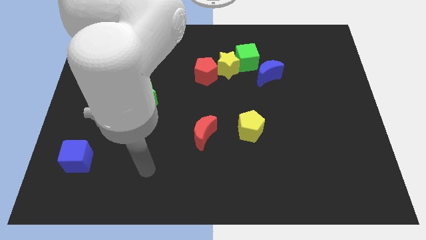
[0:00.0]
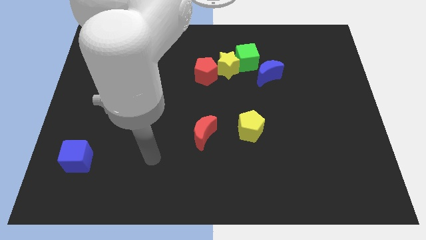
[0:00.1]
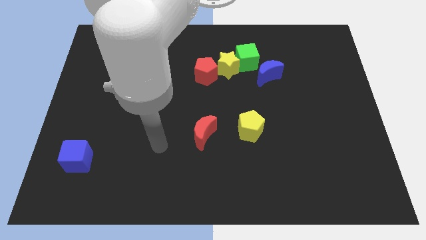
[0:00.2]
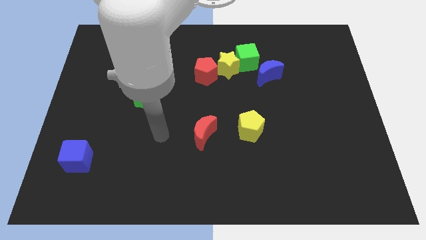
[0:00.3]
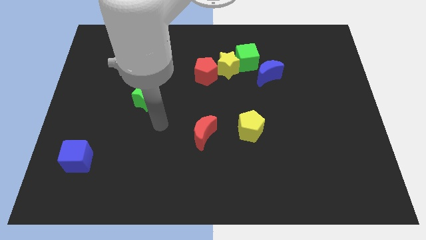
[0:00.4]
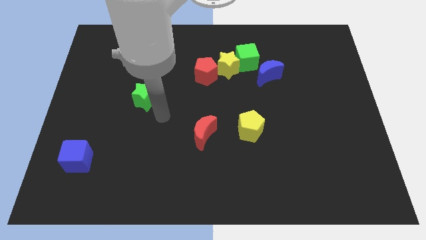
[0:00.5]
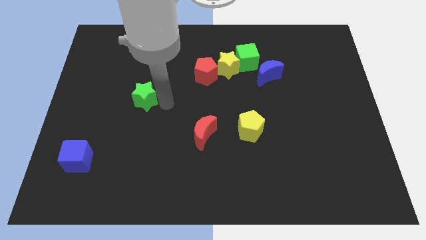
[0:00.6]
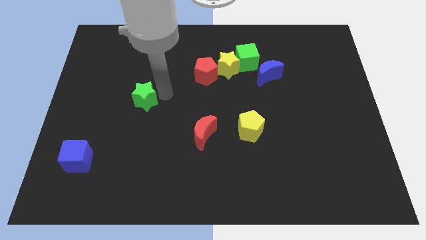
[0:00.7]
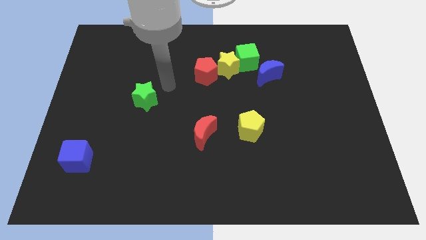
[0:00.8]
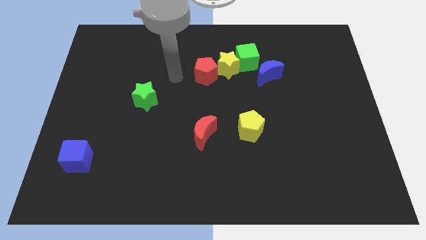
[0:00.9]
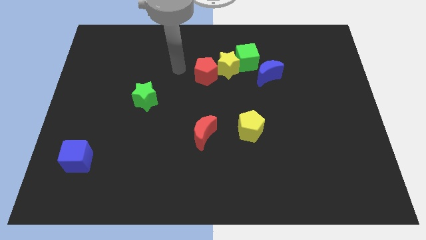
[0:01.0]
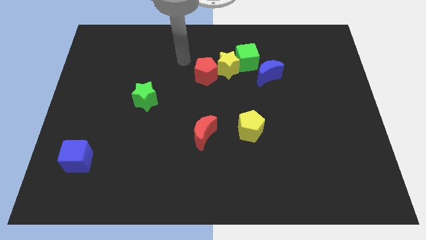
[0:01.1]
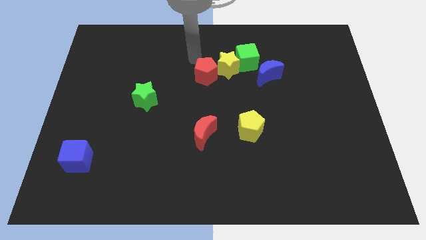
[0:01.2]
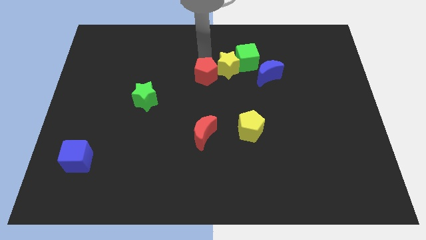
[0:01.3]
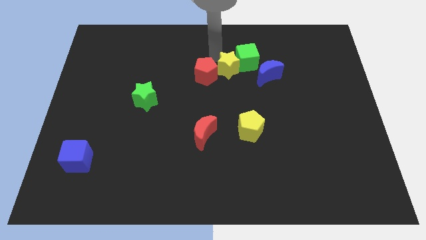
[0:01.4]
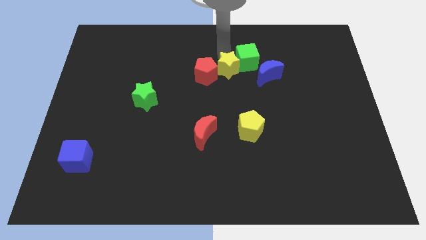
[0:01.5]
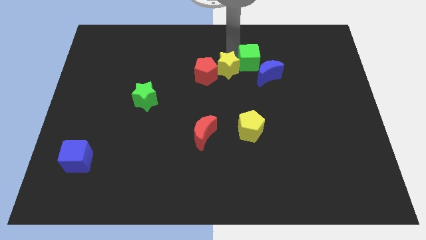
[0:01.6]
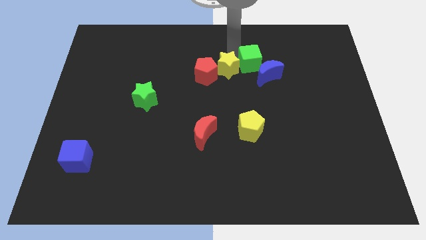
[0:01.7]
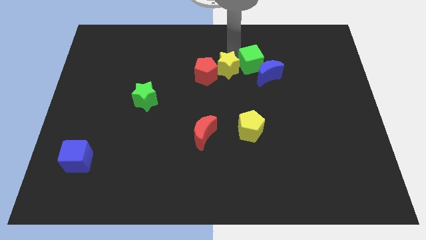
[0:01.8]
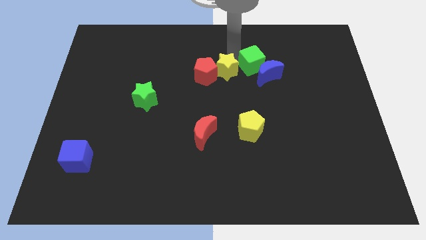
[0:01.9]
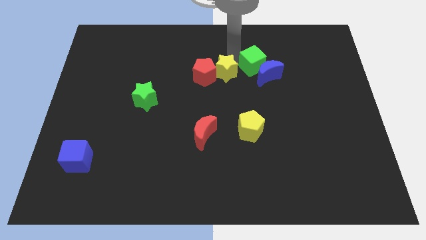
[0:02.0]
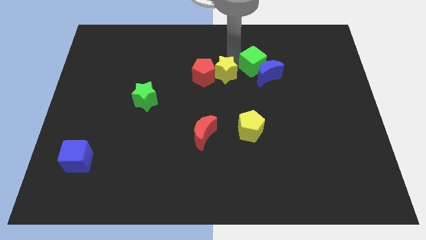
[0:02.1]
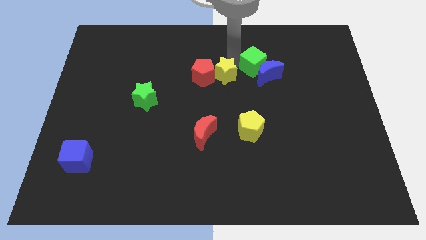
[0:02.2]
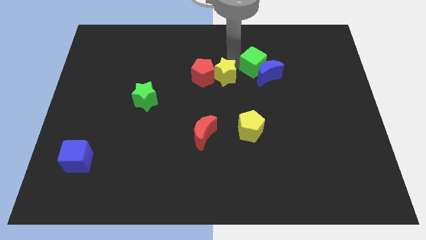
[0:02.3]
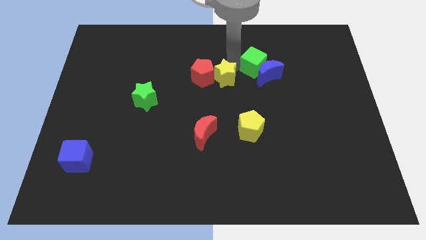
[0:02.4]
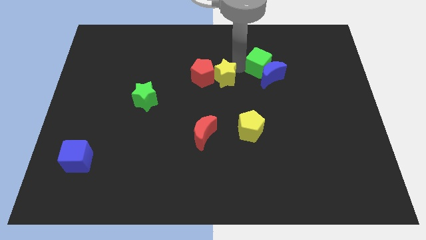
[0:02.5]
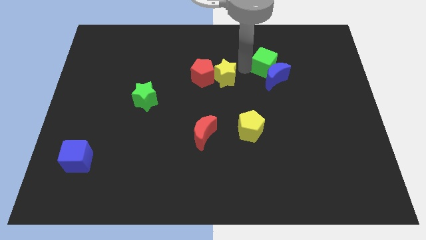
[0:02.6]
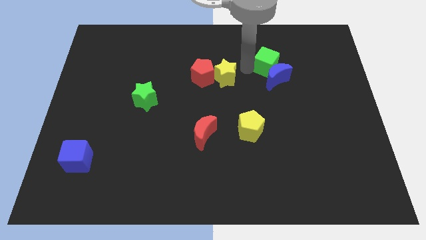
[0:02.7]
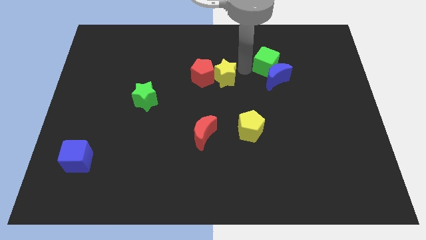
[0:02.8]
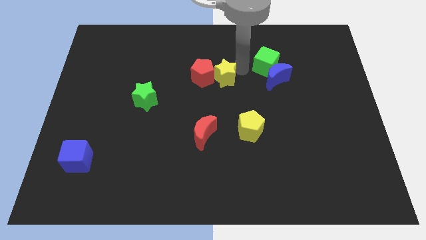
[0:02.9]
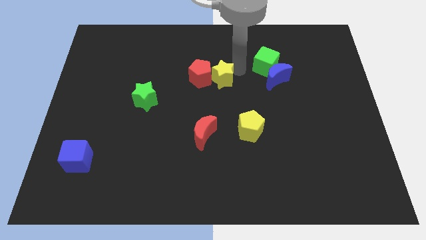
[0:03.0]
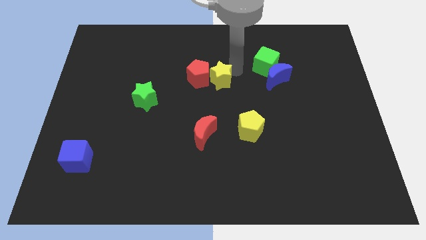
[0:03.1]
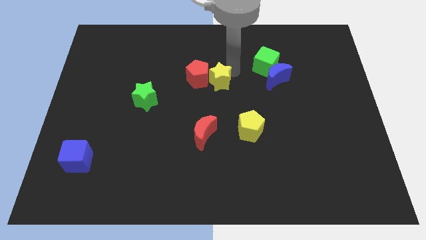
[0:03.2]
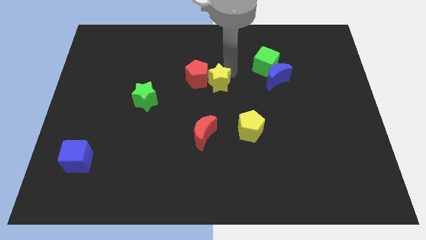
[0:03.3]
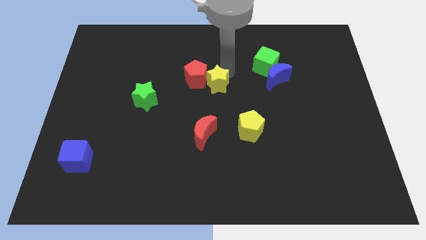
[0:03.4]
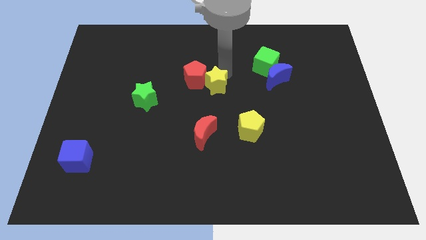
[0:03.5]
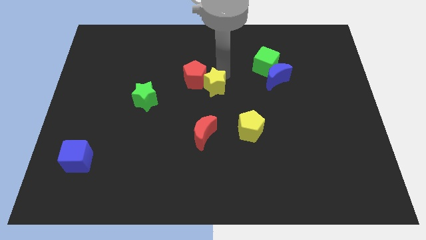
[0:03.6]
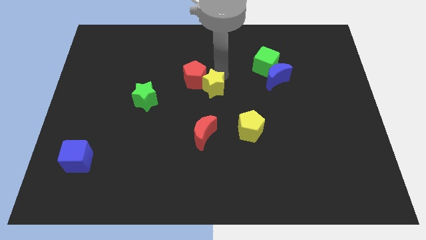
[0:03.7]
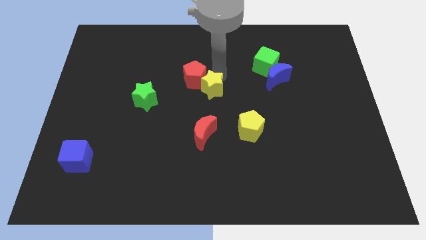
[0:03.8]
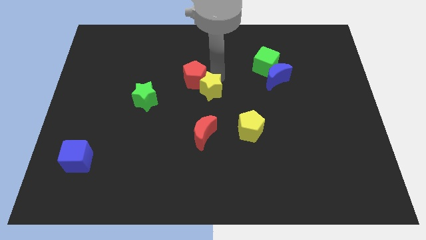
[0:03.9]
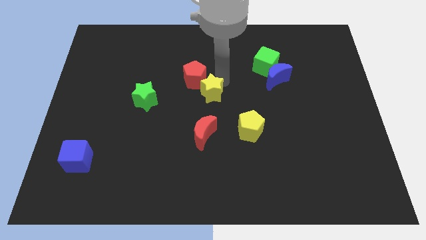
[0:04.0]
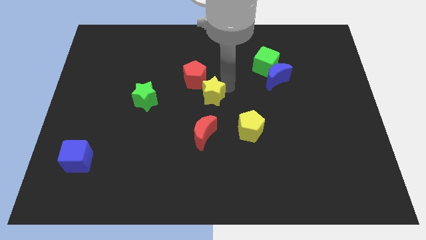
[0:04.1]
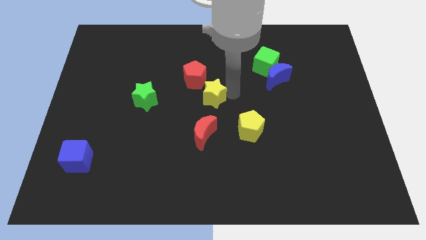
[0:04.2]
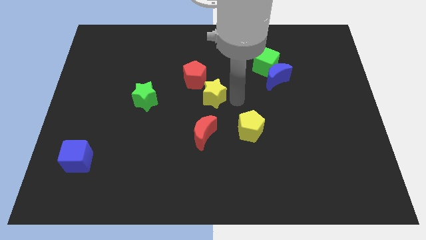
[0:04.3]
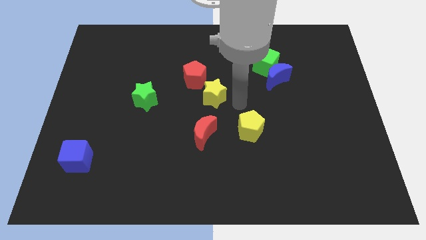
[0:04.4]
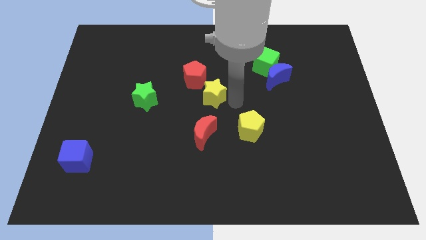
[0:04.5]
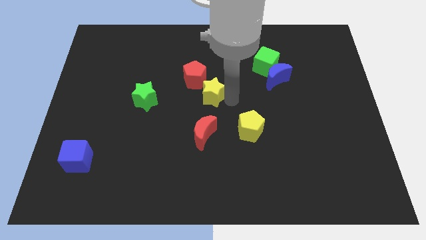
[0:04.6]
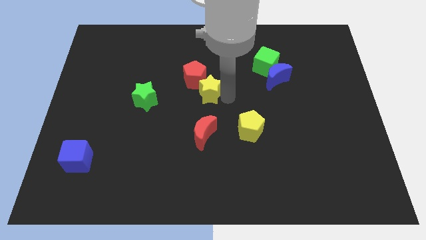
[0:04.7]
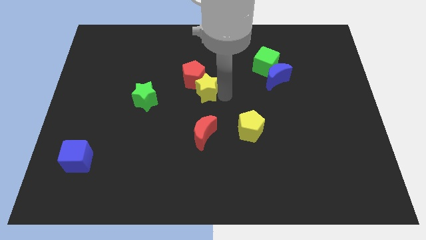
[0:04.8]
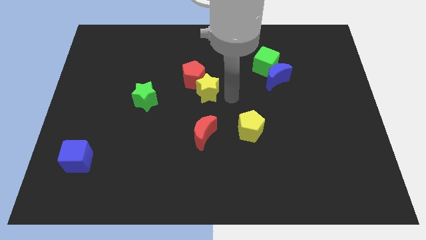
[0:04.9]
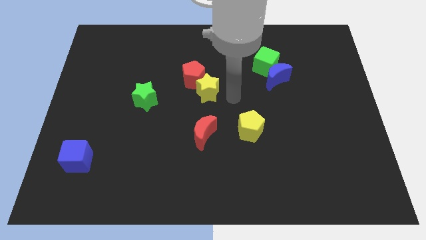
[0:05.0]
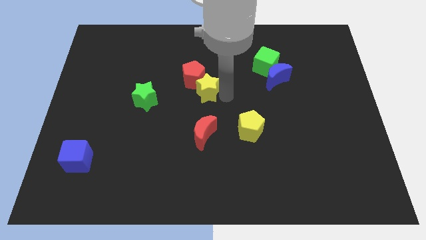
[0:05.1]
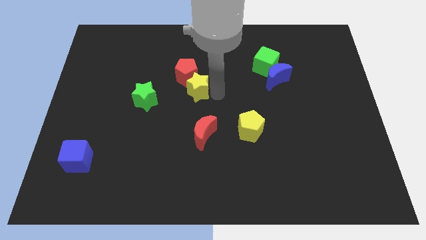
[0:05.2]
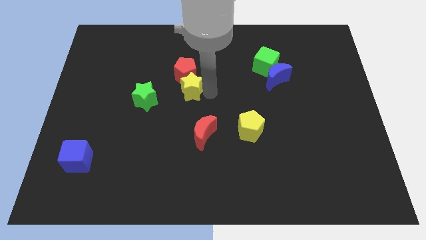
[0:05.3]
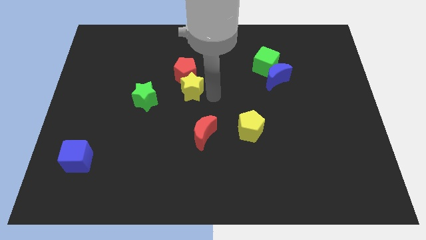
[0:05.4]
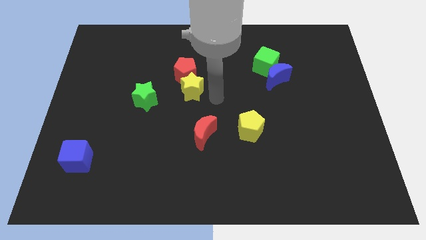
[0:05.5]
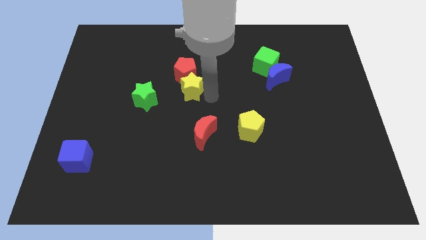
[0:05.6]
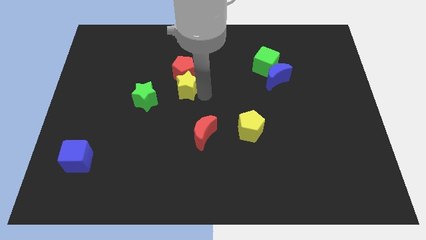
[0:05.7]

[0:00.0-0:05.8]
push the yellow star to the top right of the green star

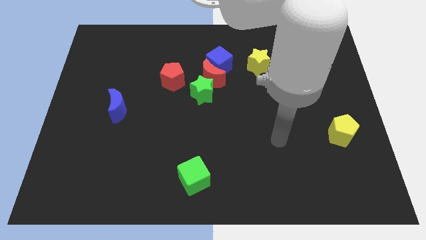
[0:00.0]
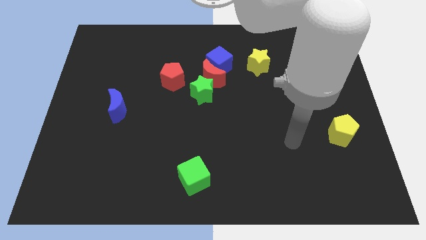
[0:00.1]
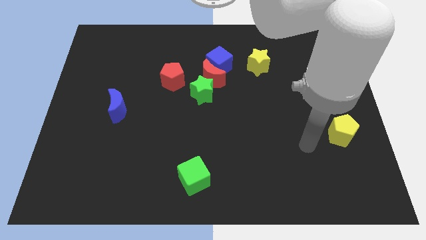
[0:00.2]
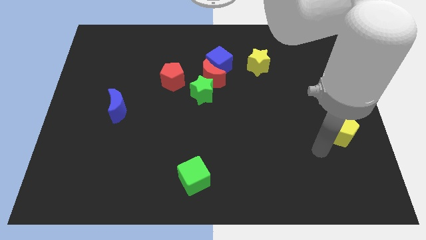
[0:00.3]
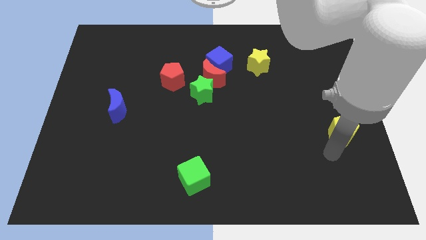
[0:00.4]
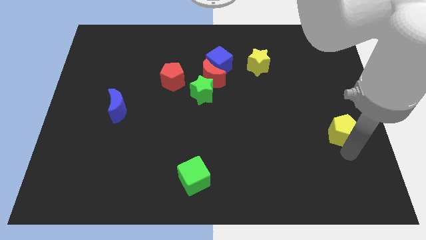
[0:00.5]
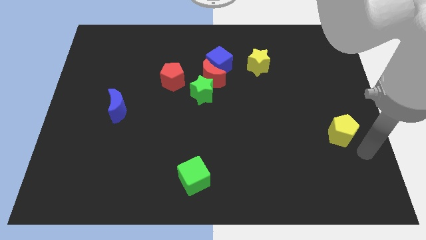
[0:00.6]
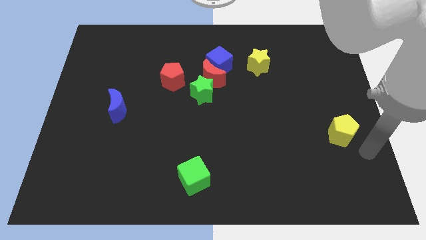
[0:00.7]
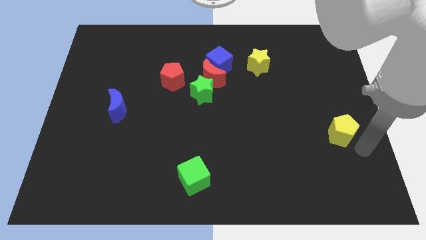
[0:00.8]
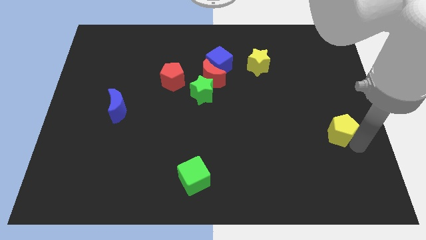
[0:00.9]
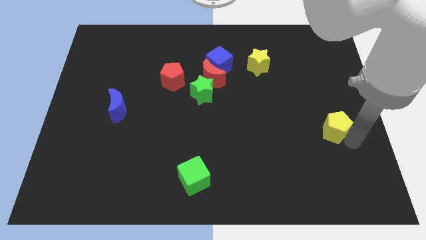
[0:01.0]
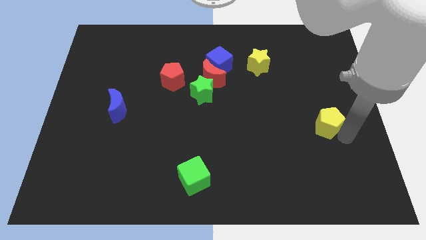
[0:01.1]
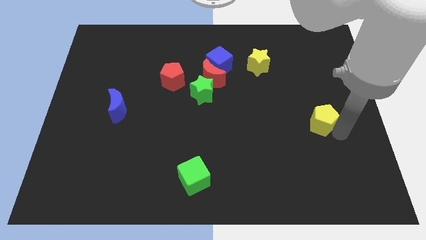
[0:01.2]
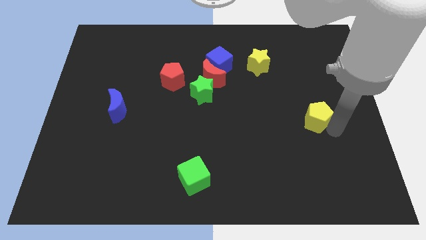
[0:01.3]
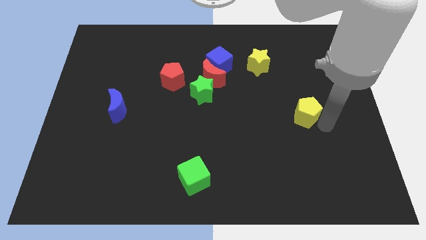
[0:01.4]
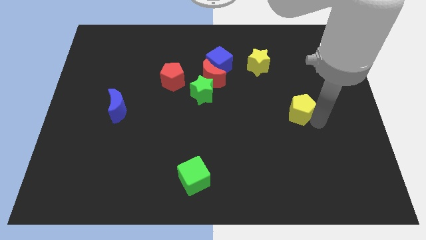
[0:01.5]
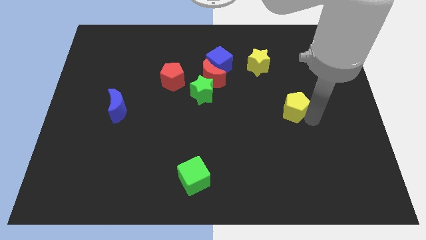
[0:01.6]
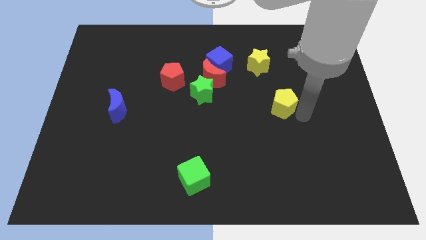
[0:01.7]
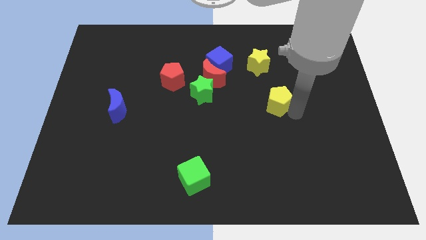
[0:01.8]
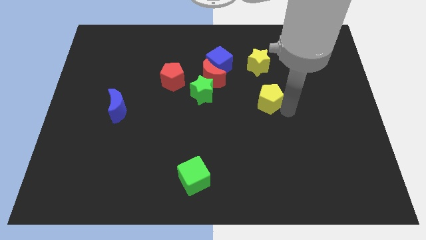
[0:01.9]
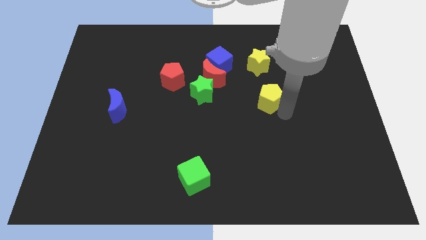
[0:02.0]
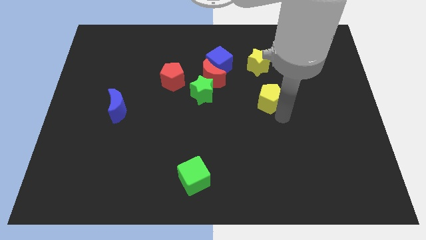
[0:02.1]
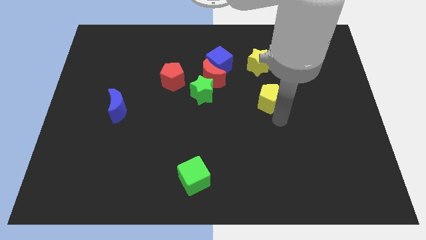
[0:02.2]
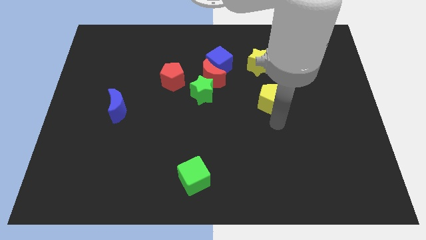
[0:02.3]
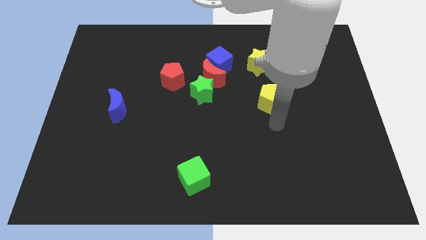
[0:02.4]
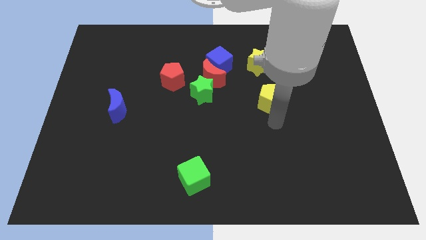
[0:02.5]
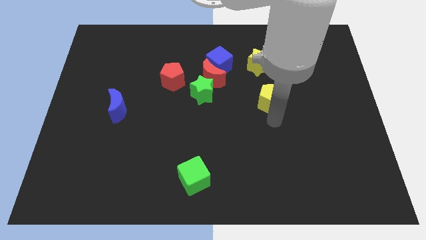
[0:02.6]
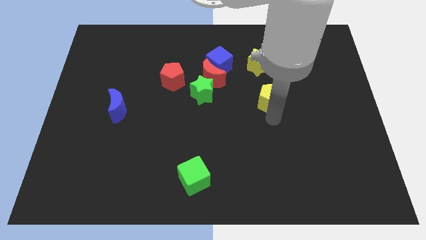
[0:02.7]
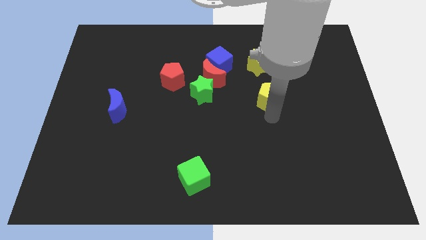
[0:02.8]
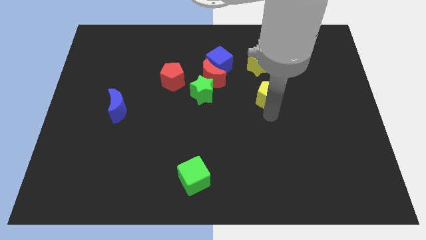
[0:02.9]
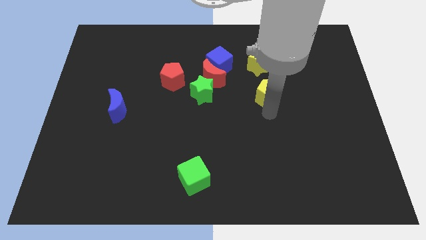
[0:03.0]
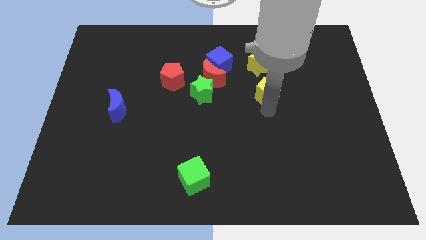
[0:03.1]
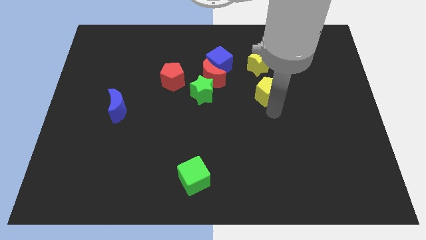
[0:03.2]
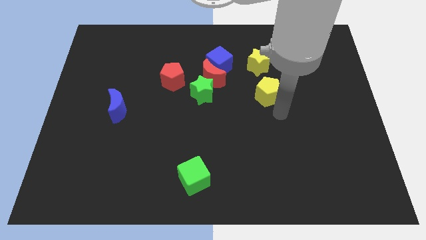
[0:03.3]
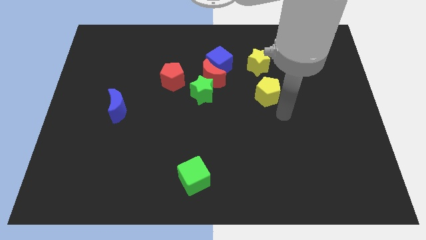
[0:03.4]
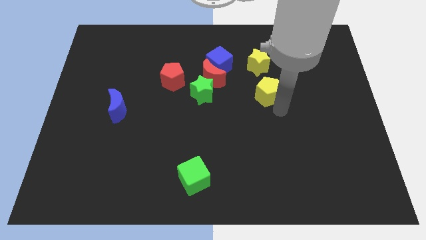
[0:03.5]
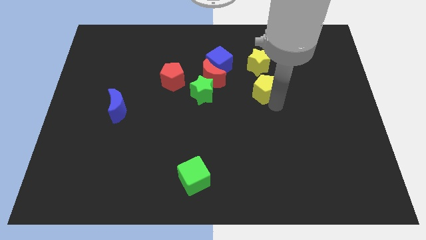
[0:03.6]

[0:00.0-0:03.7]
put the yellow pentagon to the right of the red moon
